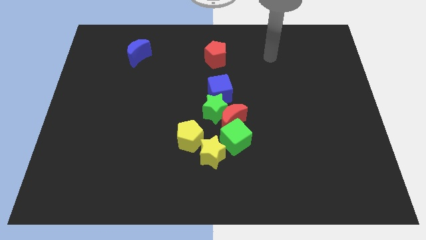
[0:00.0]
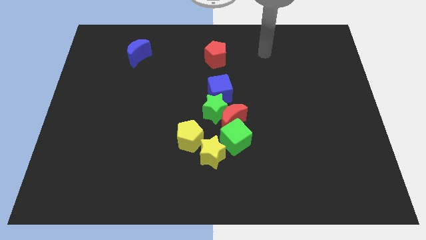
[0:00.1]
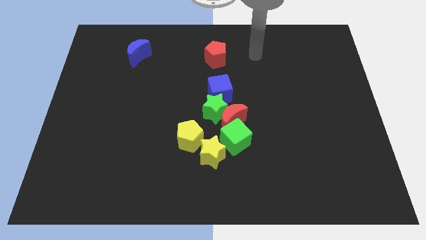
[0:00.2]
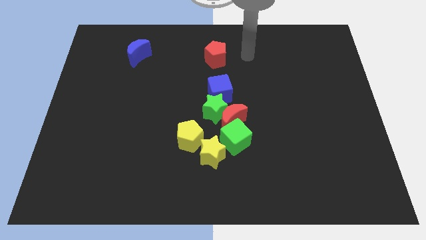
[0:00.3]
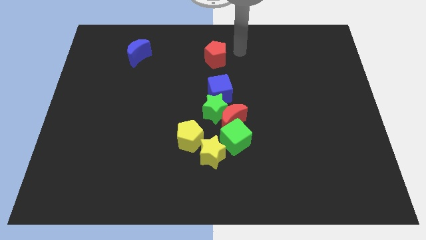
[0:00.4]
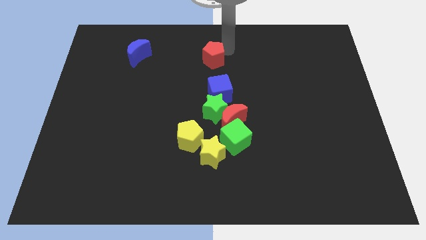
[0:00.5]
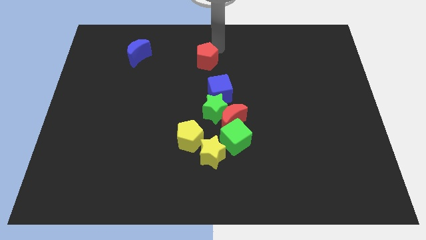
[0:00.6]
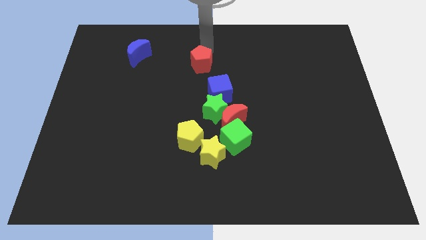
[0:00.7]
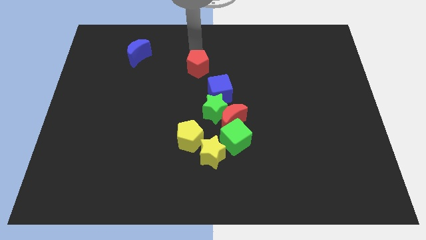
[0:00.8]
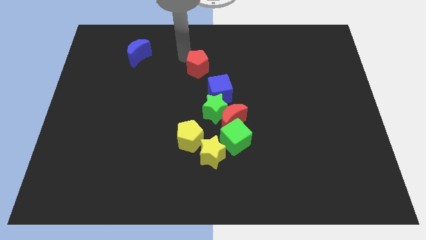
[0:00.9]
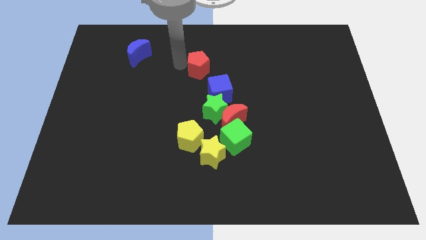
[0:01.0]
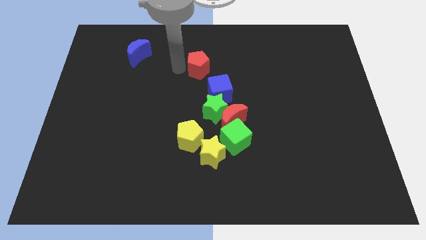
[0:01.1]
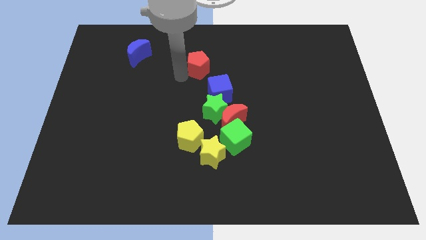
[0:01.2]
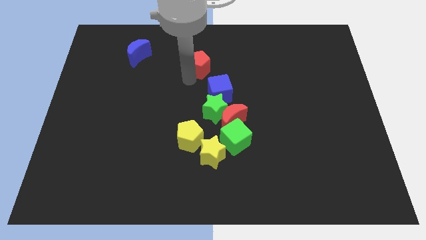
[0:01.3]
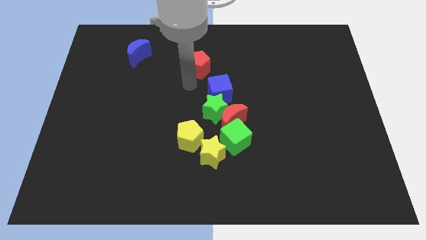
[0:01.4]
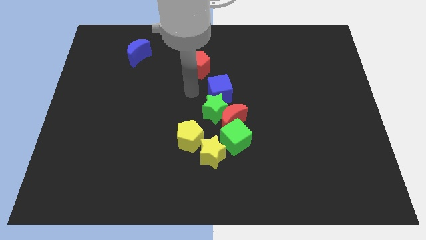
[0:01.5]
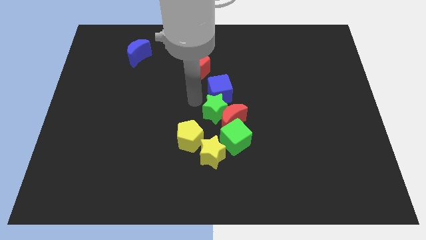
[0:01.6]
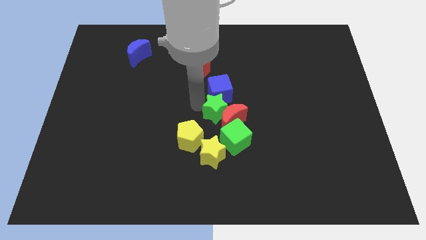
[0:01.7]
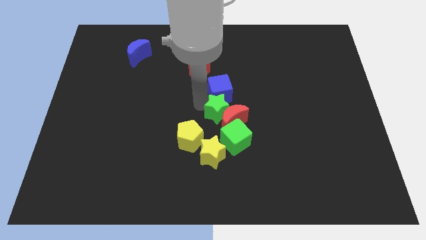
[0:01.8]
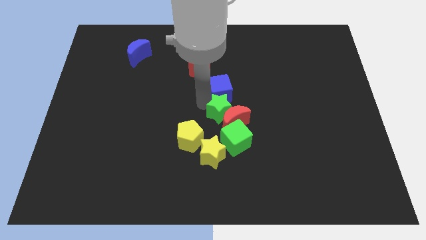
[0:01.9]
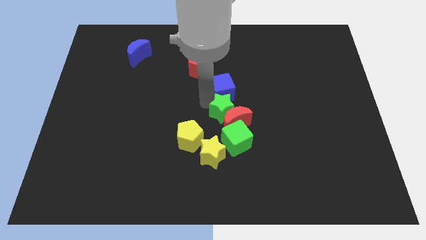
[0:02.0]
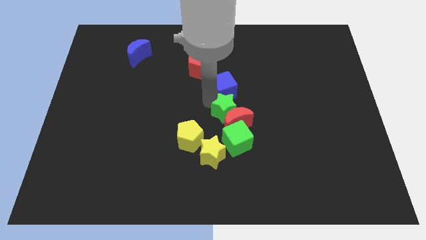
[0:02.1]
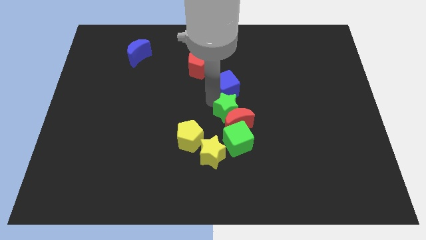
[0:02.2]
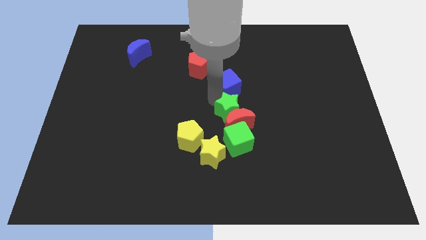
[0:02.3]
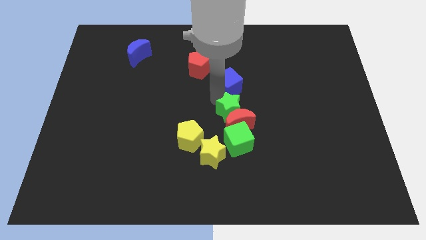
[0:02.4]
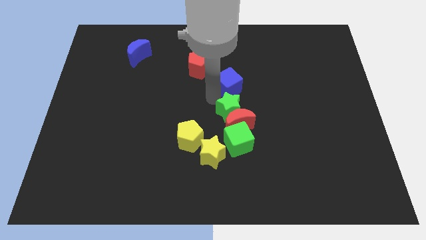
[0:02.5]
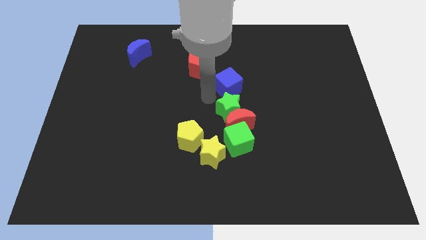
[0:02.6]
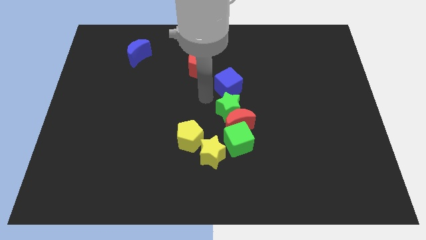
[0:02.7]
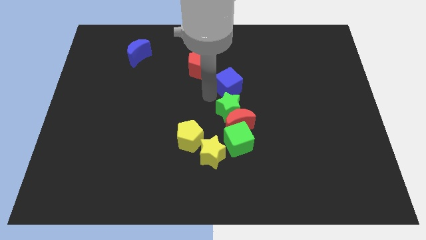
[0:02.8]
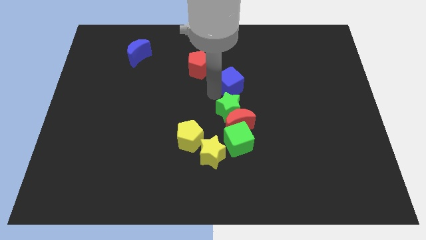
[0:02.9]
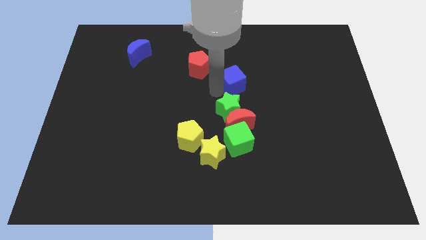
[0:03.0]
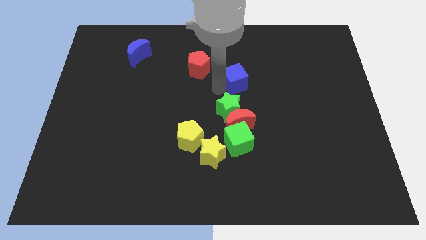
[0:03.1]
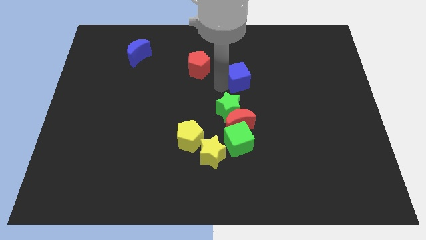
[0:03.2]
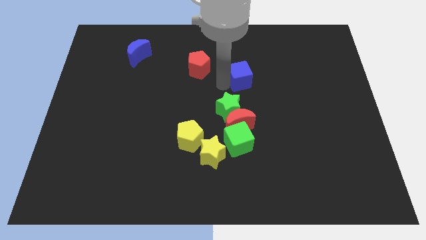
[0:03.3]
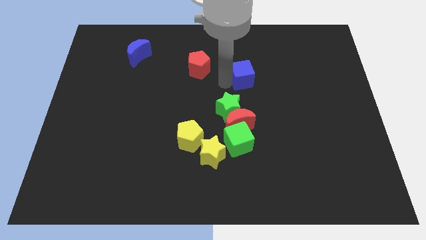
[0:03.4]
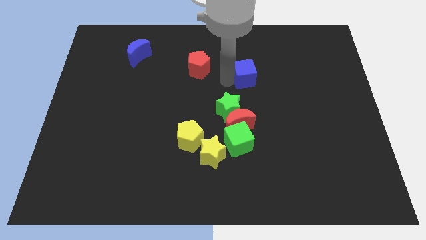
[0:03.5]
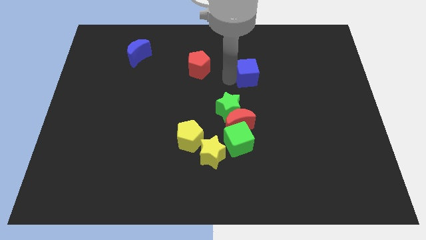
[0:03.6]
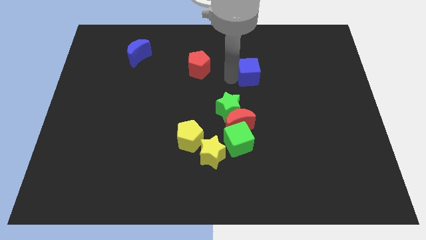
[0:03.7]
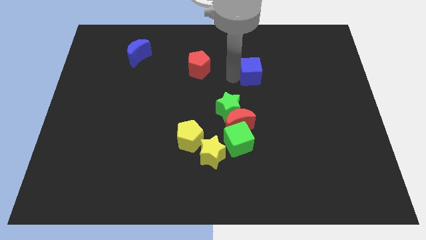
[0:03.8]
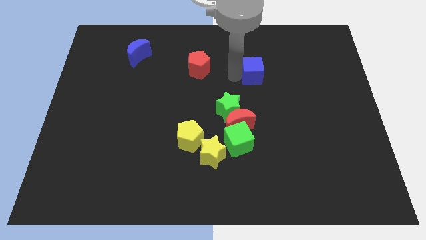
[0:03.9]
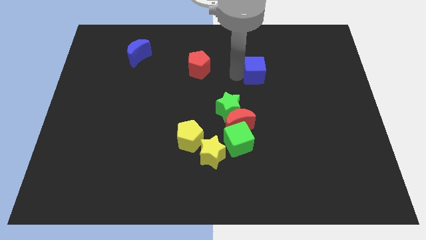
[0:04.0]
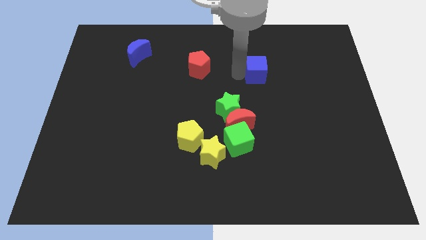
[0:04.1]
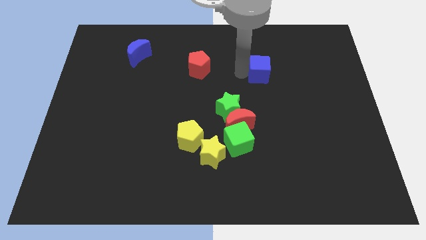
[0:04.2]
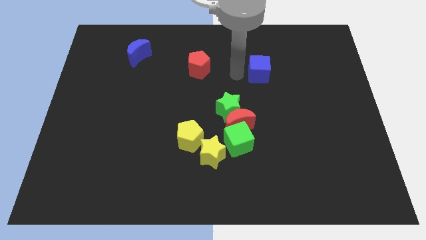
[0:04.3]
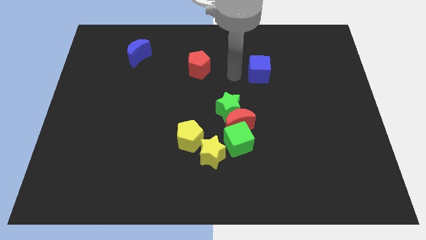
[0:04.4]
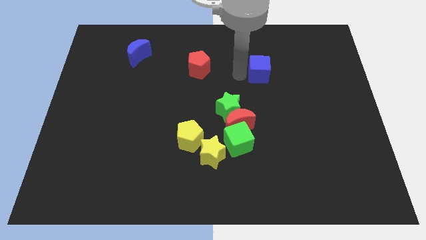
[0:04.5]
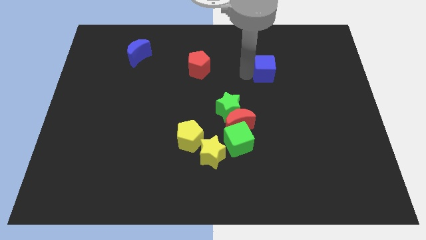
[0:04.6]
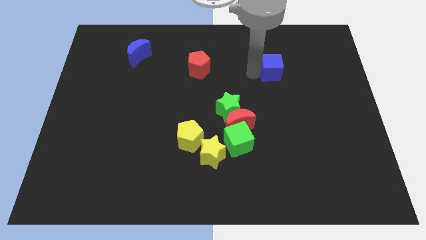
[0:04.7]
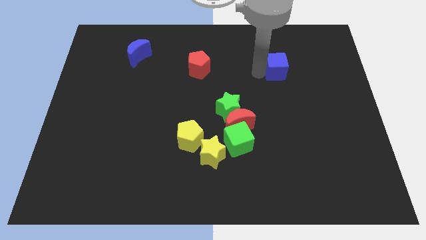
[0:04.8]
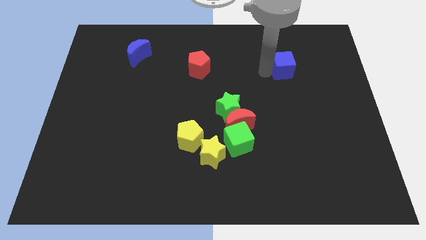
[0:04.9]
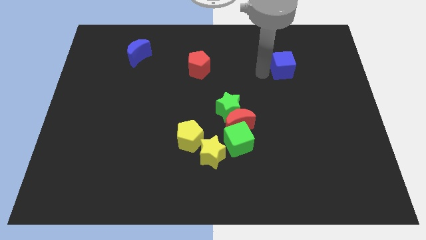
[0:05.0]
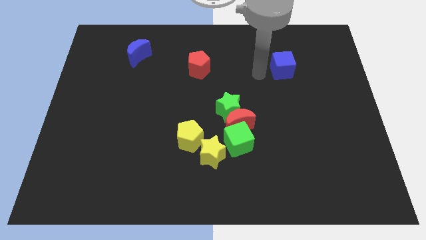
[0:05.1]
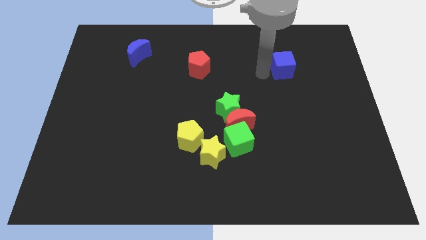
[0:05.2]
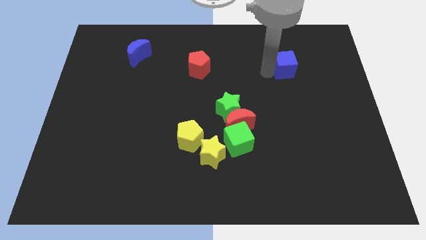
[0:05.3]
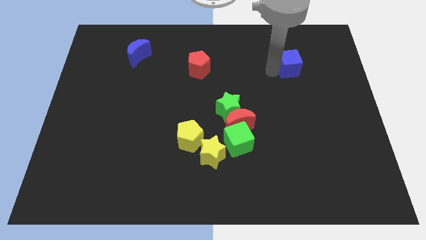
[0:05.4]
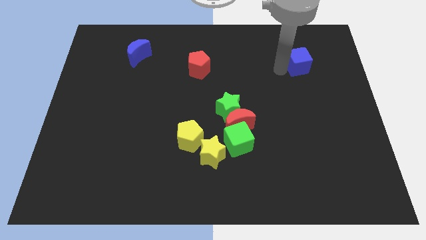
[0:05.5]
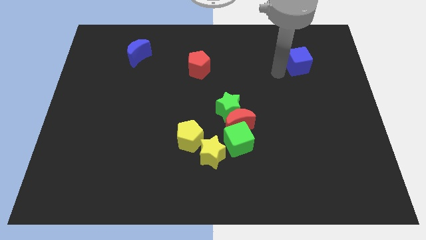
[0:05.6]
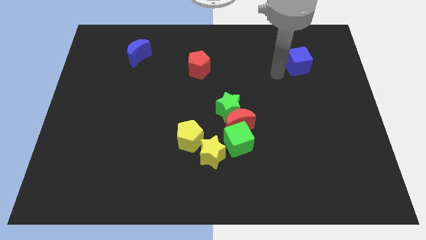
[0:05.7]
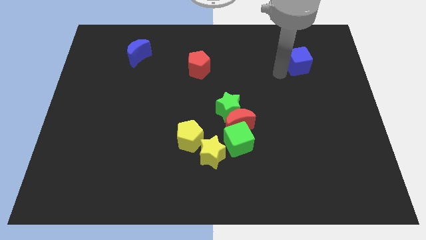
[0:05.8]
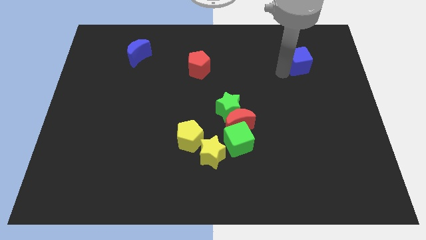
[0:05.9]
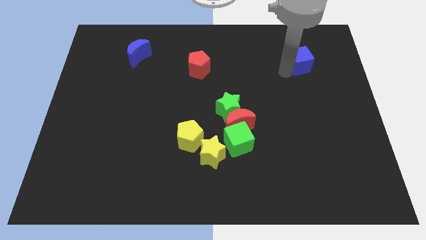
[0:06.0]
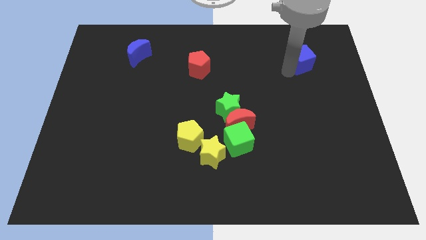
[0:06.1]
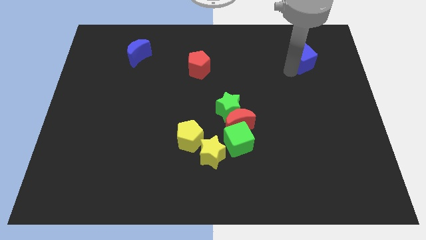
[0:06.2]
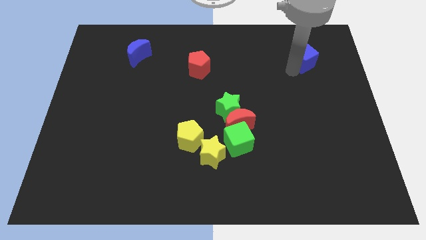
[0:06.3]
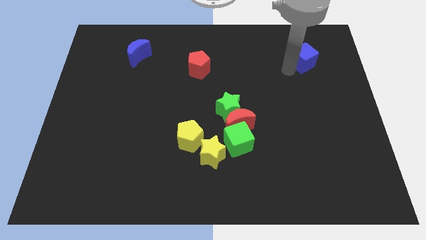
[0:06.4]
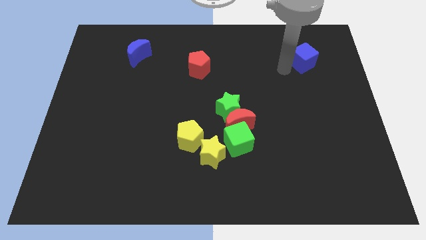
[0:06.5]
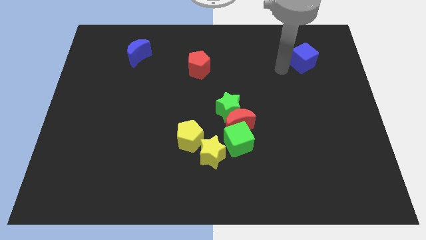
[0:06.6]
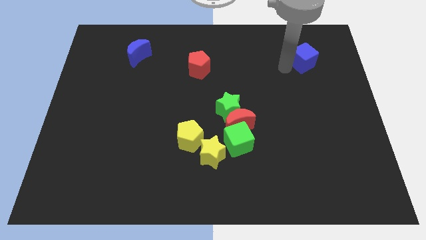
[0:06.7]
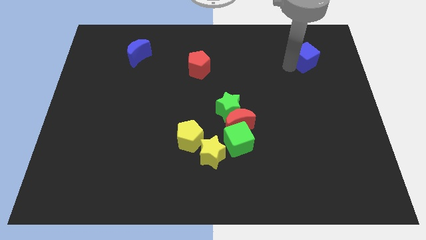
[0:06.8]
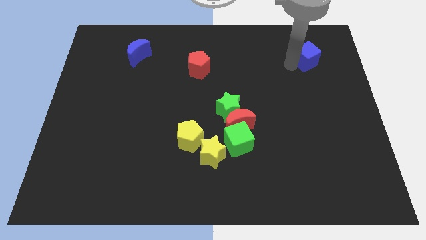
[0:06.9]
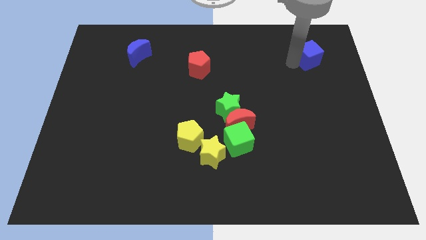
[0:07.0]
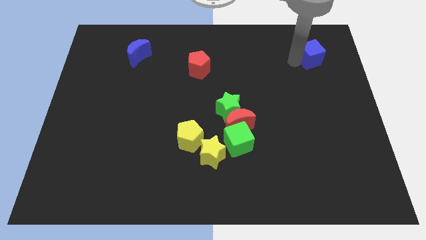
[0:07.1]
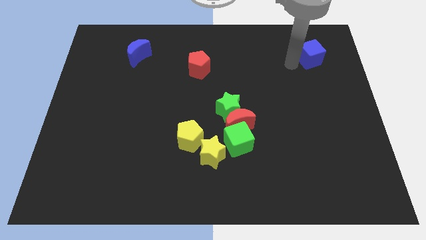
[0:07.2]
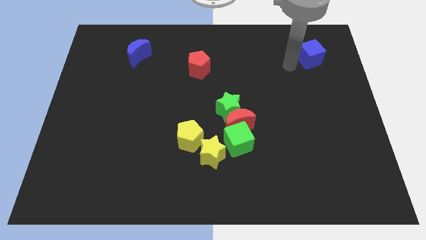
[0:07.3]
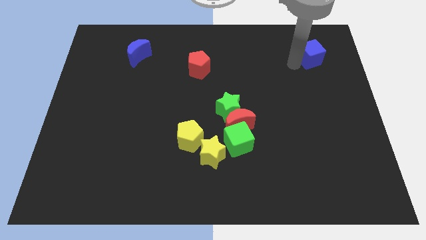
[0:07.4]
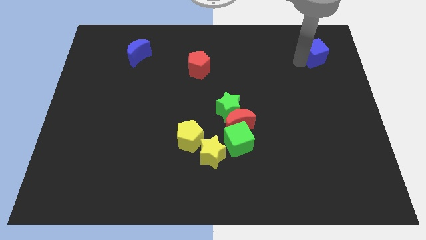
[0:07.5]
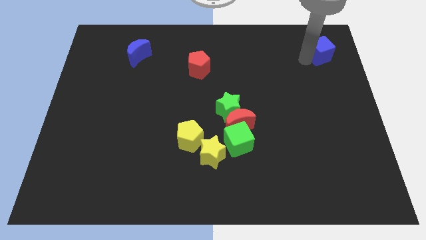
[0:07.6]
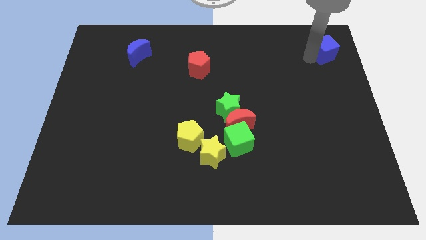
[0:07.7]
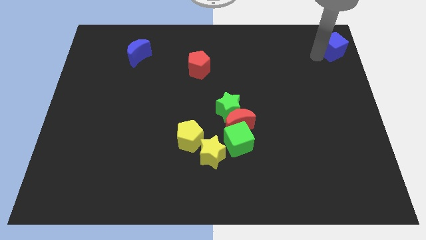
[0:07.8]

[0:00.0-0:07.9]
put the blue cube to the top right corner
